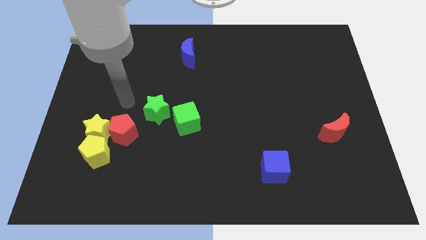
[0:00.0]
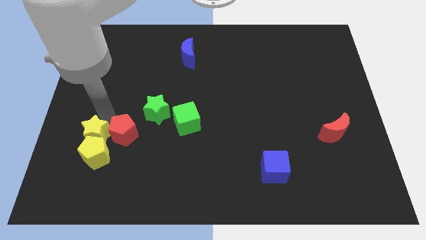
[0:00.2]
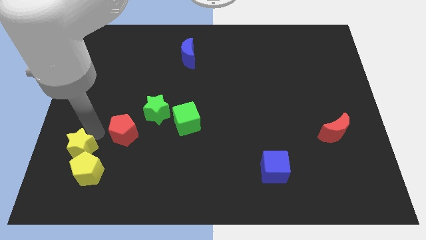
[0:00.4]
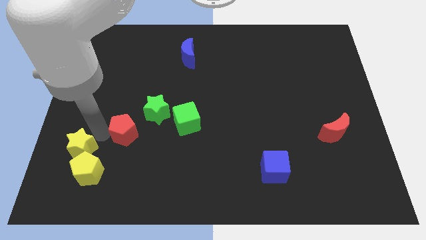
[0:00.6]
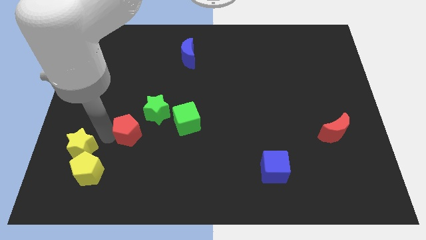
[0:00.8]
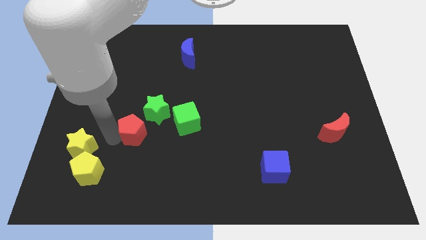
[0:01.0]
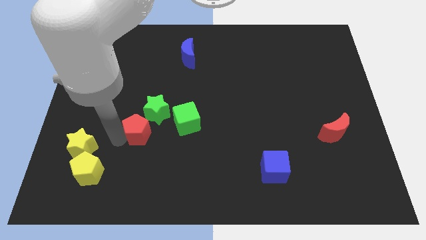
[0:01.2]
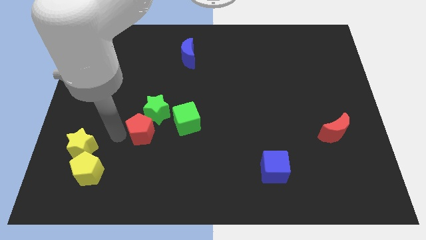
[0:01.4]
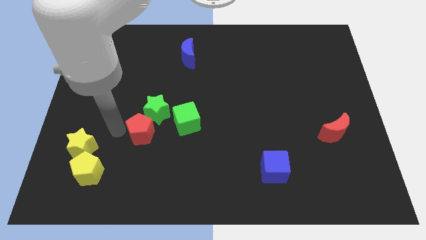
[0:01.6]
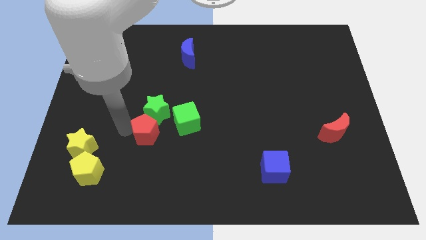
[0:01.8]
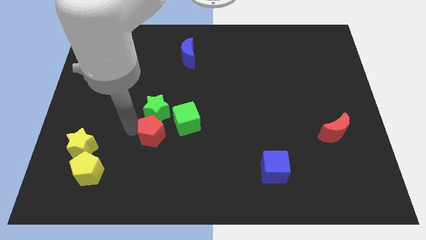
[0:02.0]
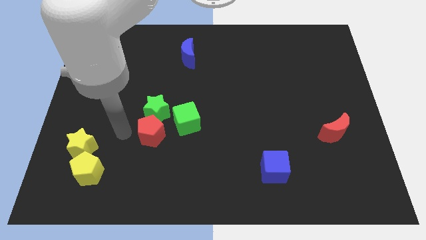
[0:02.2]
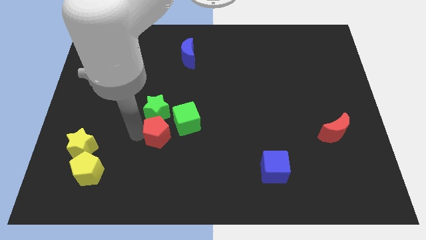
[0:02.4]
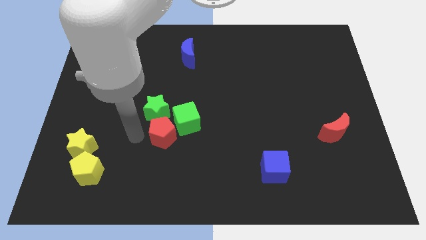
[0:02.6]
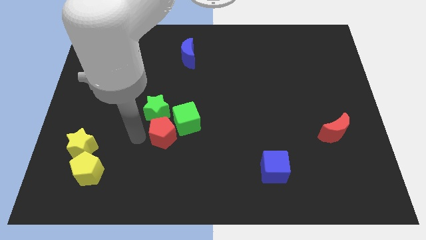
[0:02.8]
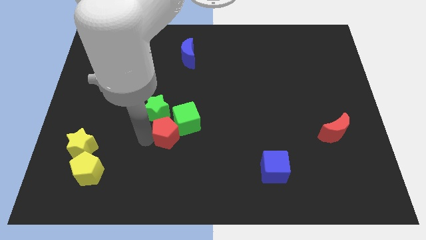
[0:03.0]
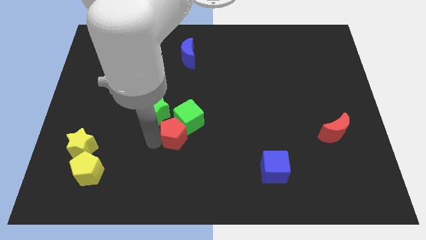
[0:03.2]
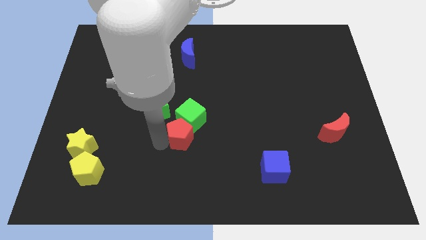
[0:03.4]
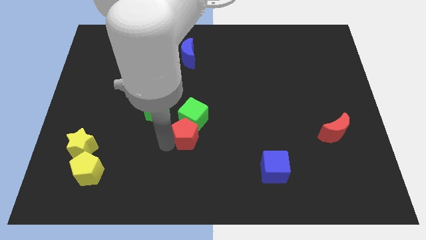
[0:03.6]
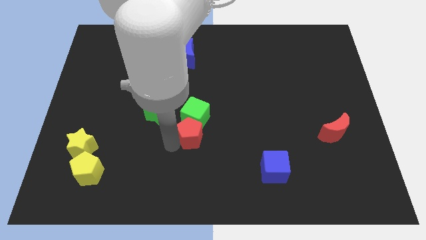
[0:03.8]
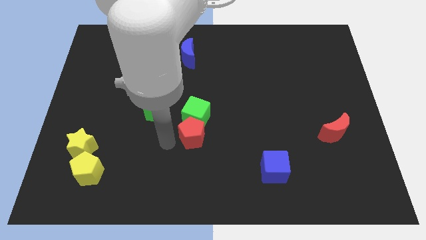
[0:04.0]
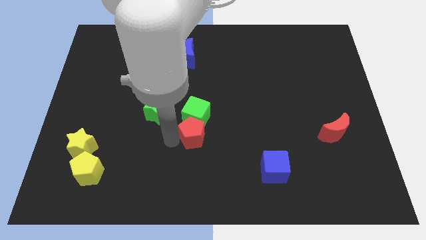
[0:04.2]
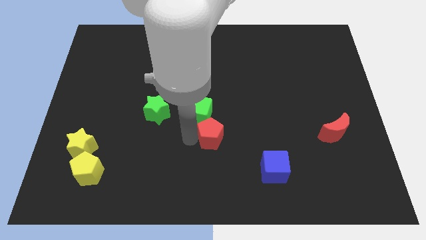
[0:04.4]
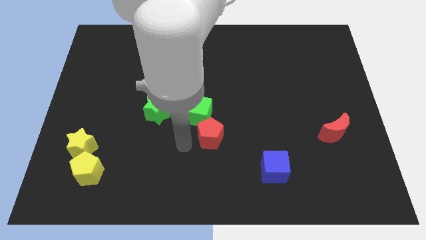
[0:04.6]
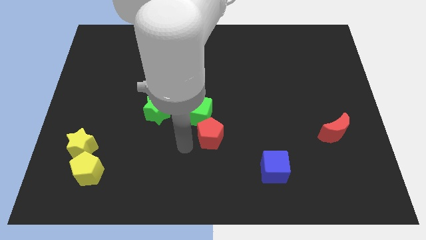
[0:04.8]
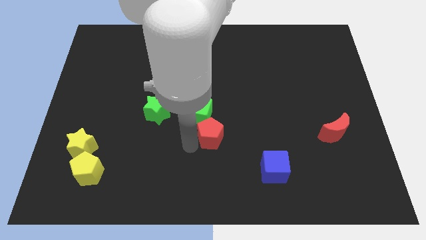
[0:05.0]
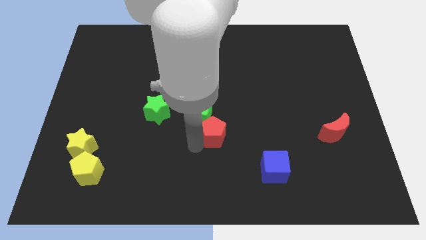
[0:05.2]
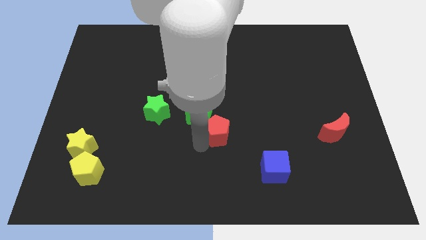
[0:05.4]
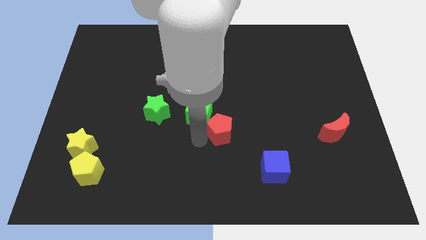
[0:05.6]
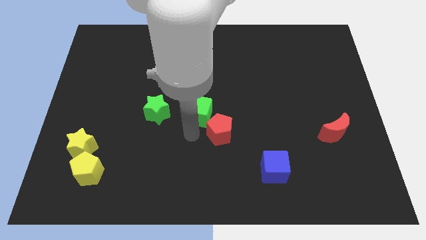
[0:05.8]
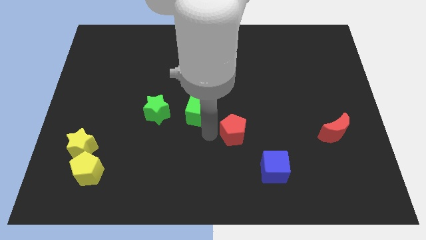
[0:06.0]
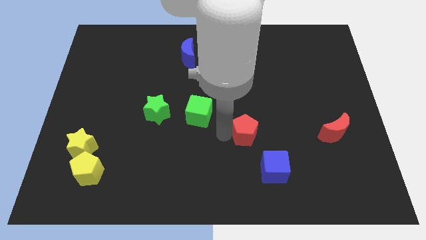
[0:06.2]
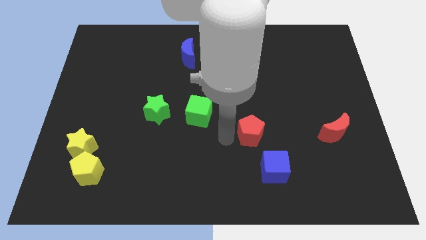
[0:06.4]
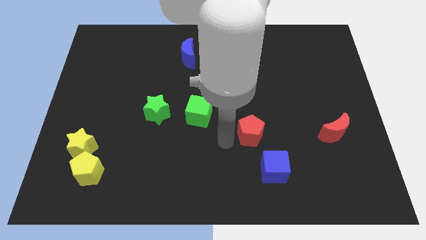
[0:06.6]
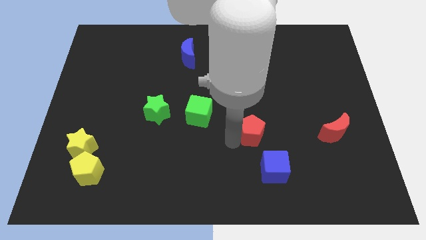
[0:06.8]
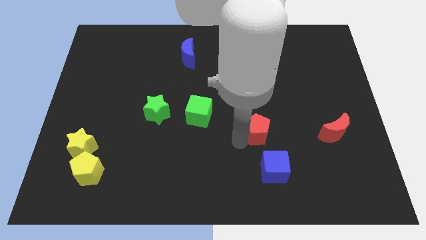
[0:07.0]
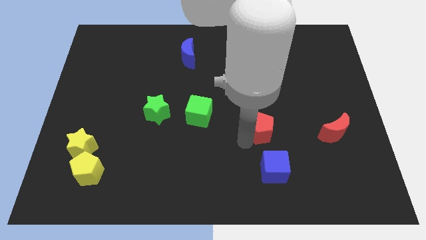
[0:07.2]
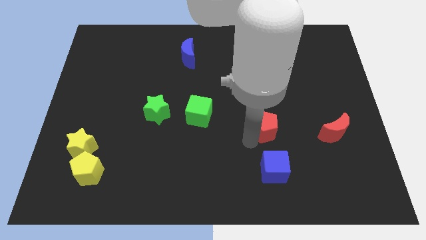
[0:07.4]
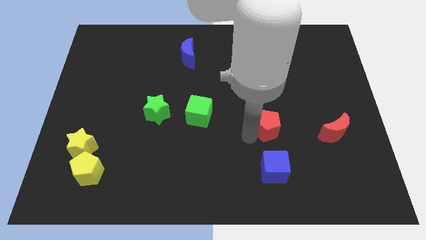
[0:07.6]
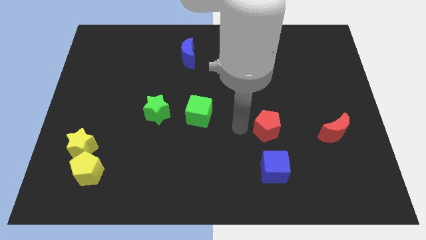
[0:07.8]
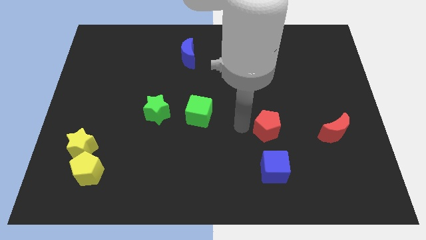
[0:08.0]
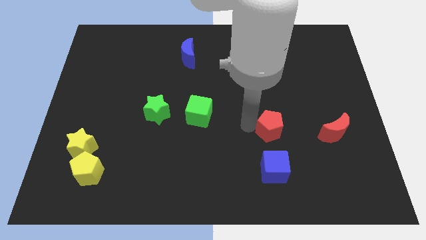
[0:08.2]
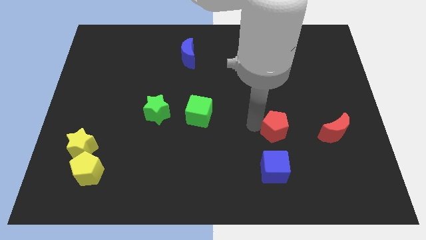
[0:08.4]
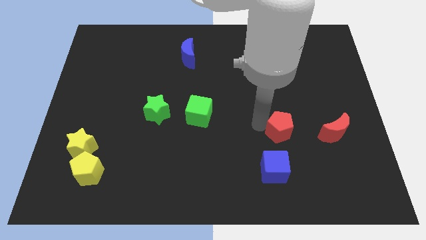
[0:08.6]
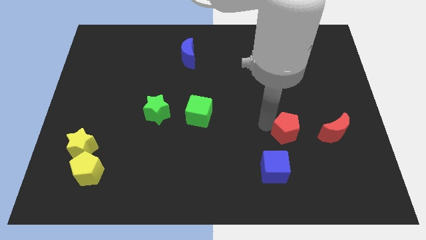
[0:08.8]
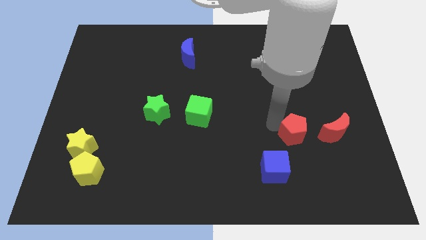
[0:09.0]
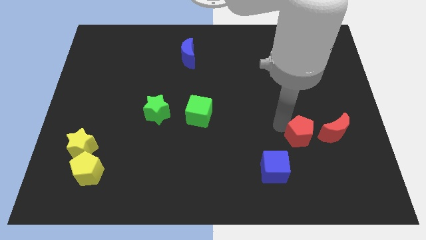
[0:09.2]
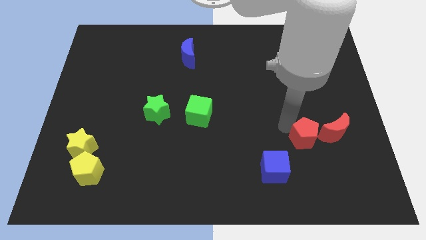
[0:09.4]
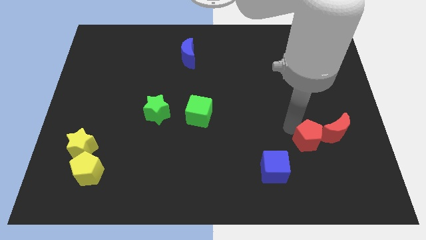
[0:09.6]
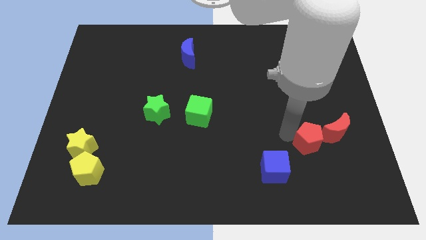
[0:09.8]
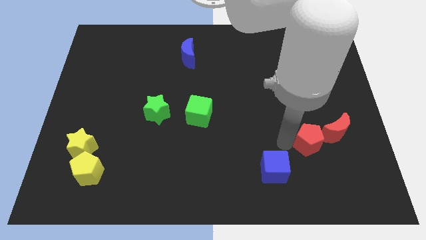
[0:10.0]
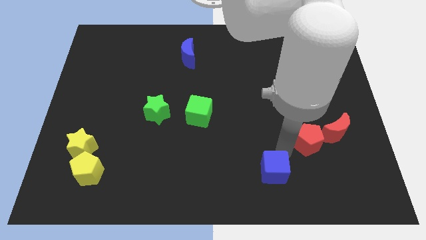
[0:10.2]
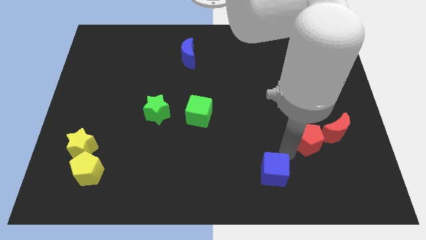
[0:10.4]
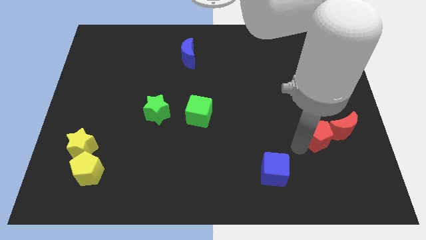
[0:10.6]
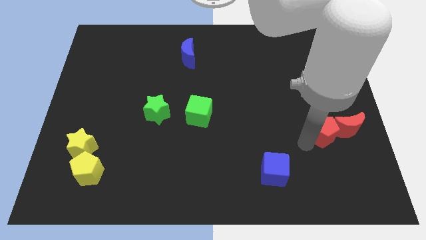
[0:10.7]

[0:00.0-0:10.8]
push the red pentagon next to the red moon

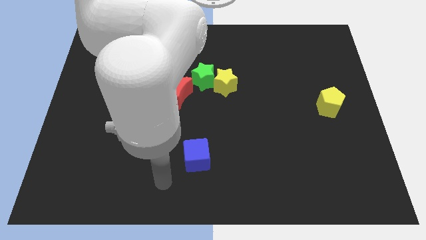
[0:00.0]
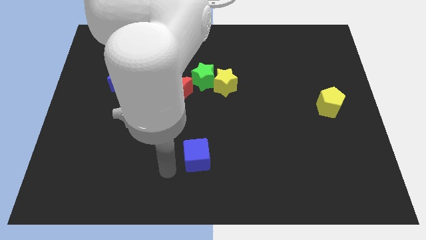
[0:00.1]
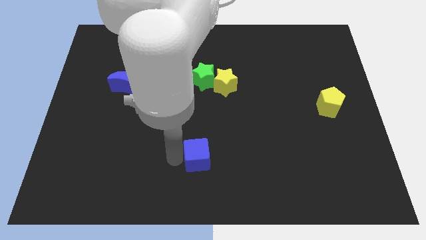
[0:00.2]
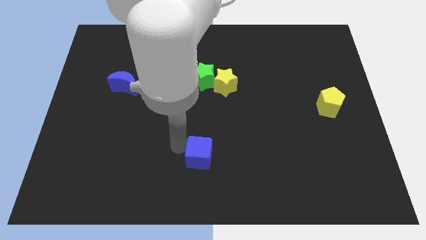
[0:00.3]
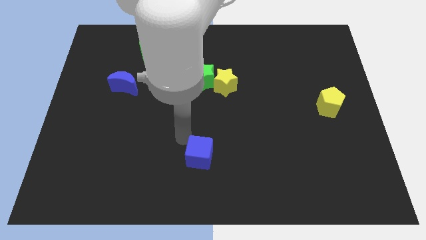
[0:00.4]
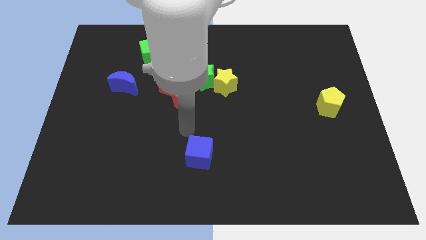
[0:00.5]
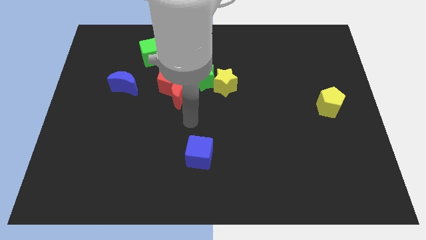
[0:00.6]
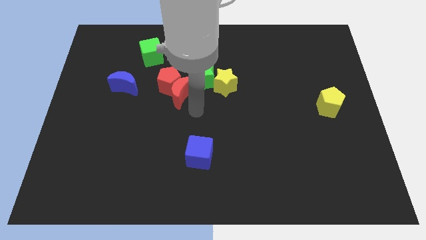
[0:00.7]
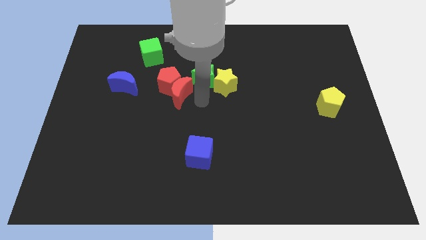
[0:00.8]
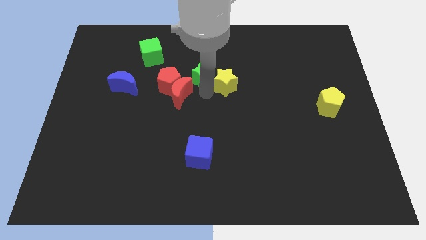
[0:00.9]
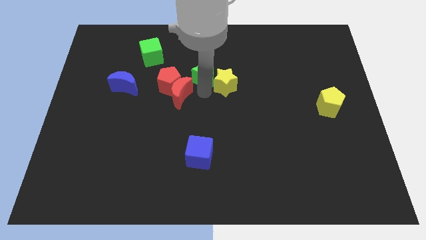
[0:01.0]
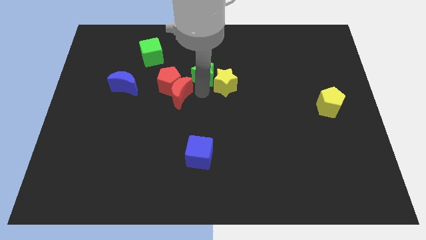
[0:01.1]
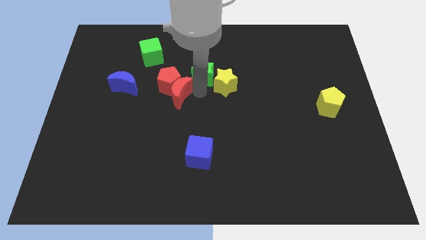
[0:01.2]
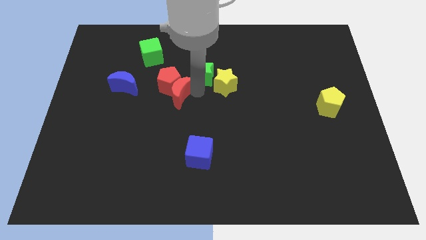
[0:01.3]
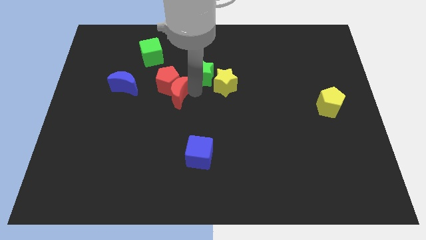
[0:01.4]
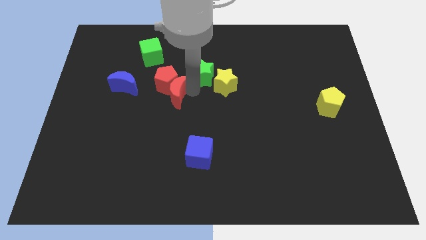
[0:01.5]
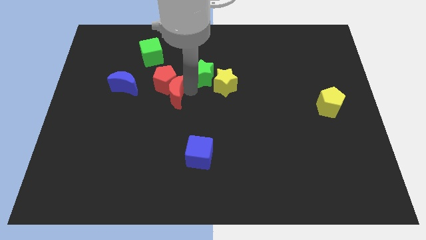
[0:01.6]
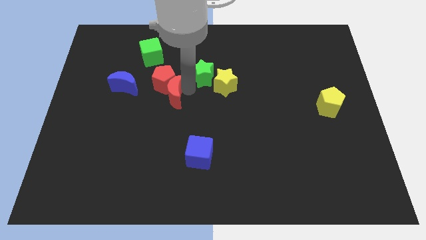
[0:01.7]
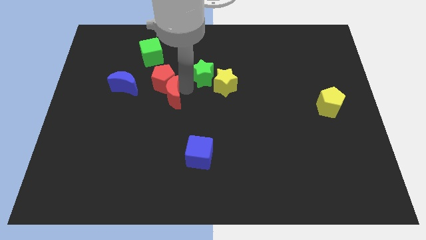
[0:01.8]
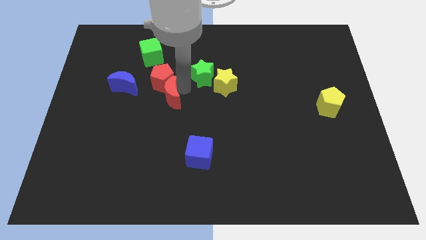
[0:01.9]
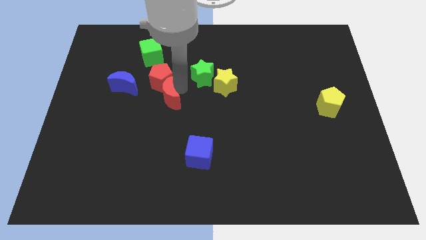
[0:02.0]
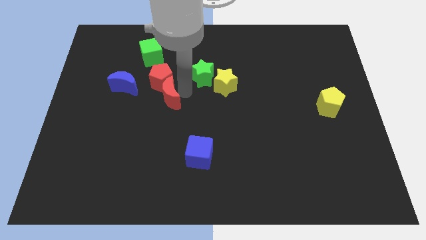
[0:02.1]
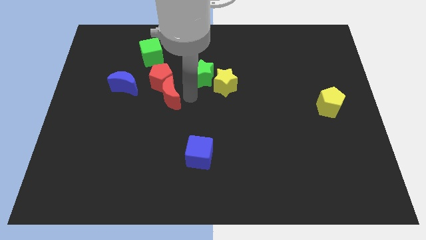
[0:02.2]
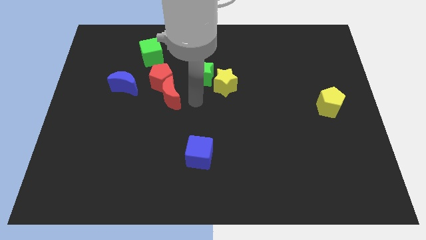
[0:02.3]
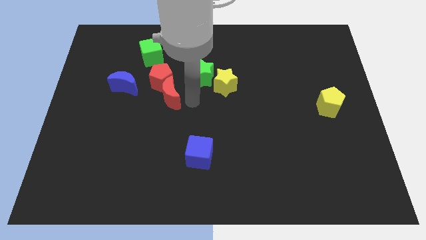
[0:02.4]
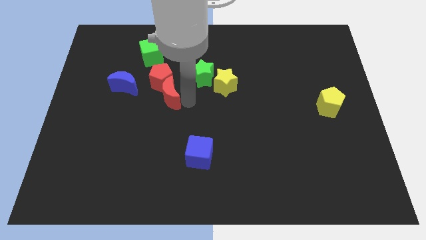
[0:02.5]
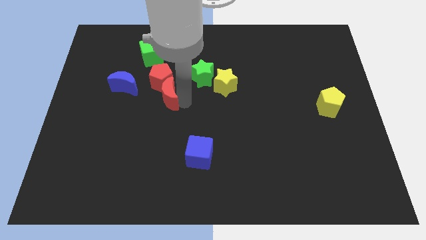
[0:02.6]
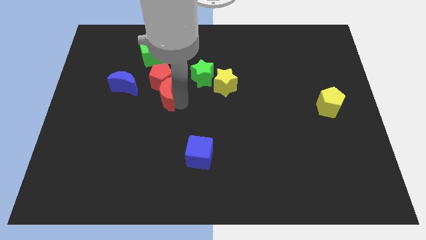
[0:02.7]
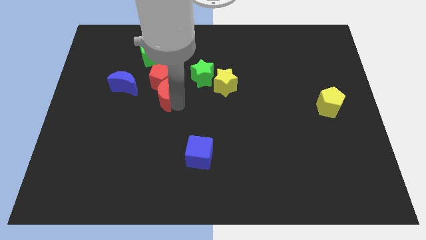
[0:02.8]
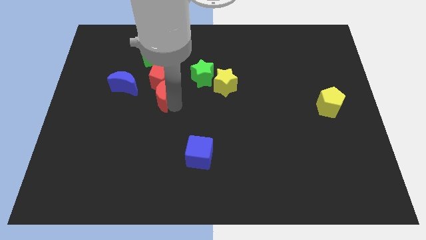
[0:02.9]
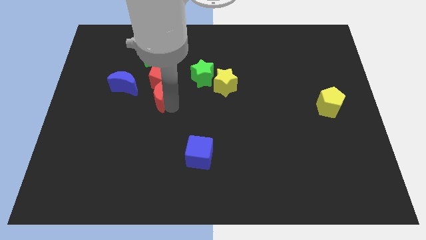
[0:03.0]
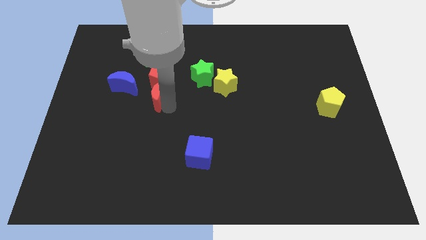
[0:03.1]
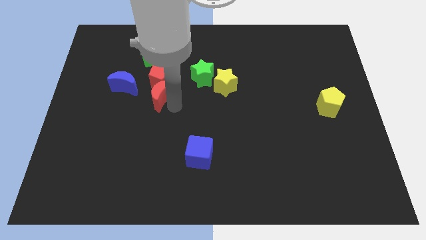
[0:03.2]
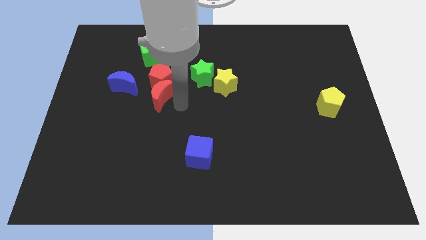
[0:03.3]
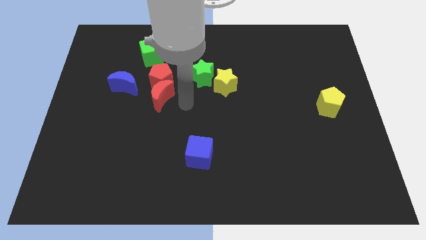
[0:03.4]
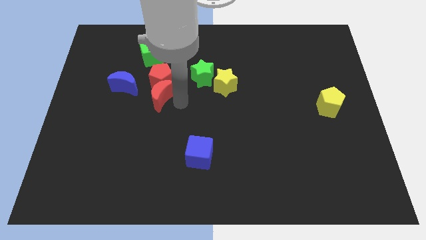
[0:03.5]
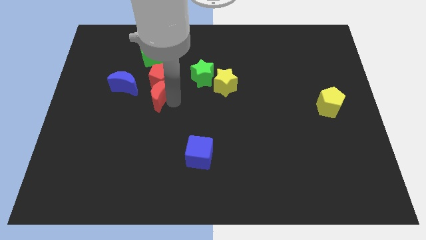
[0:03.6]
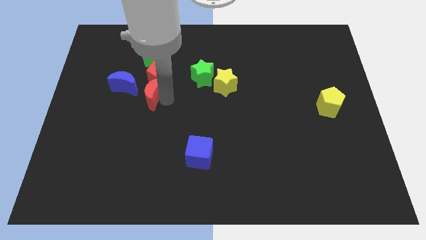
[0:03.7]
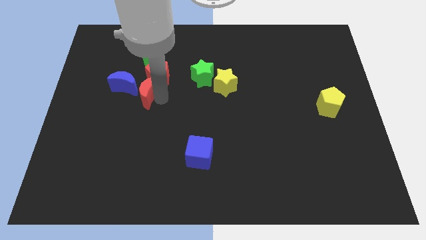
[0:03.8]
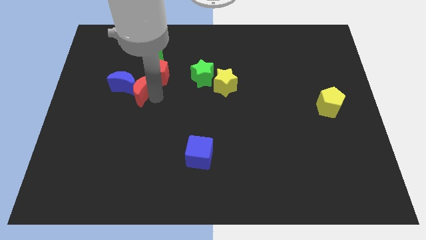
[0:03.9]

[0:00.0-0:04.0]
move the red moon close to the blue moon
